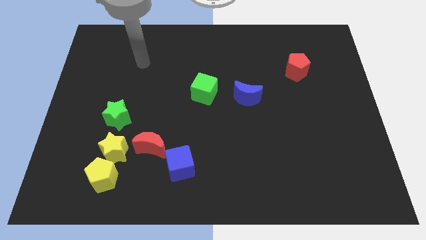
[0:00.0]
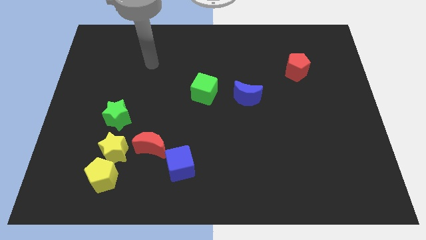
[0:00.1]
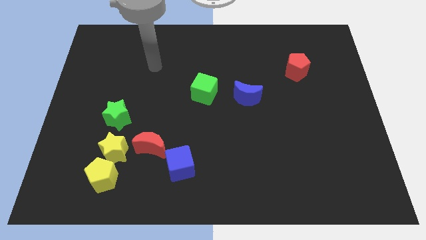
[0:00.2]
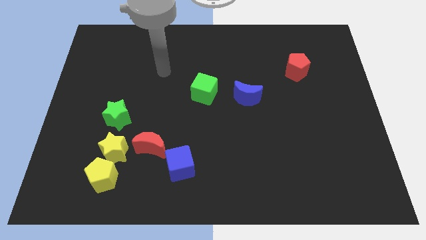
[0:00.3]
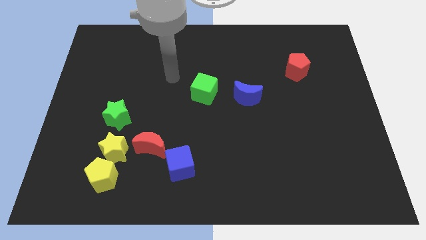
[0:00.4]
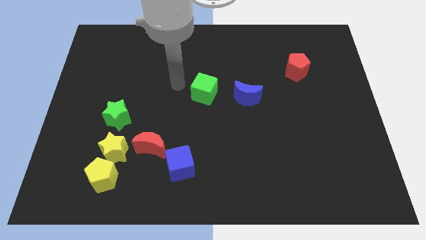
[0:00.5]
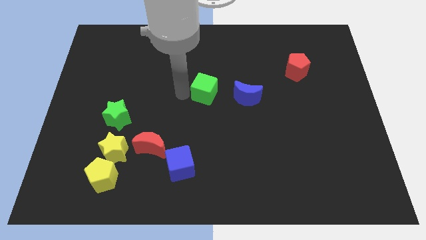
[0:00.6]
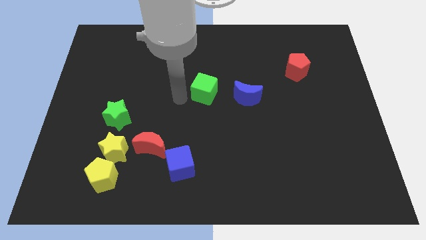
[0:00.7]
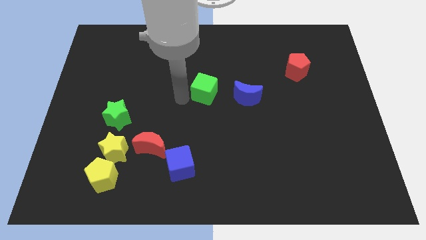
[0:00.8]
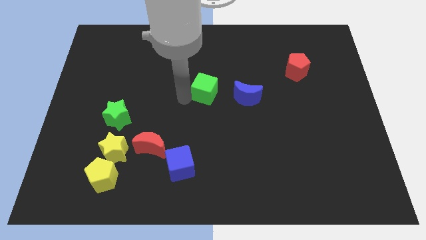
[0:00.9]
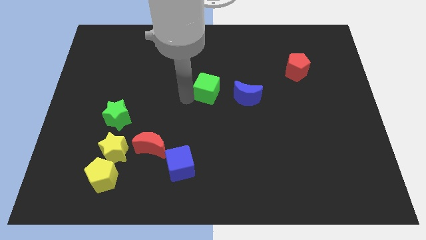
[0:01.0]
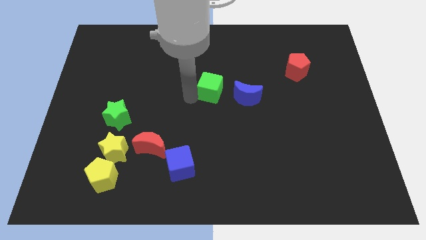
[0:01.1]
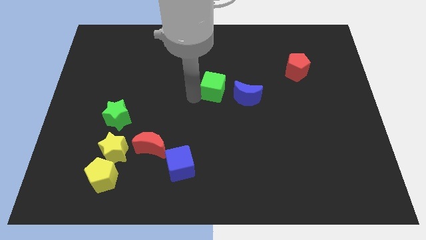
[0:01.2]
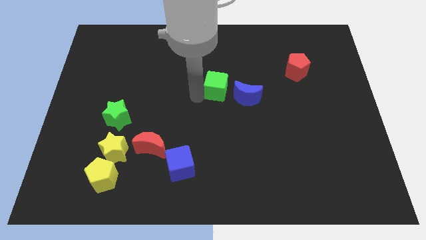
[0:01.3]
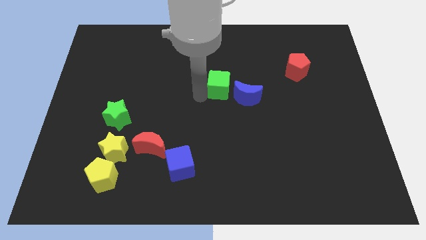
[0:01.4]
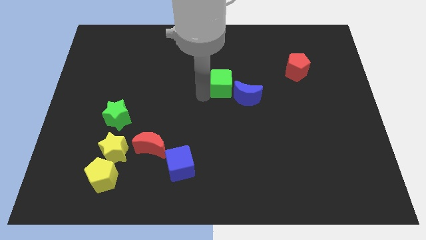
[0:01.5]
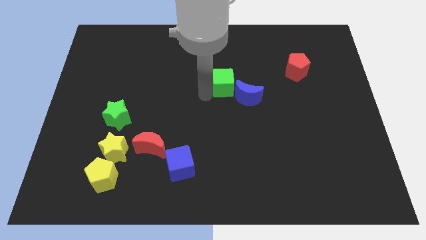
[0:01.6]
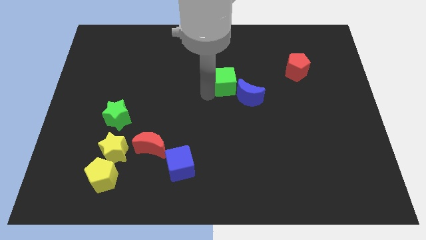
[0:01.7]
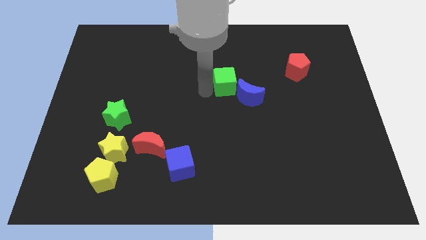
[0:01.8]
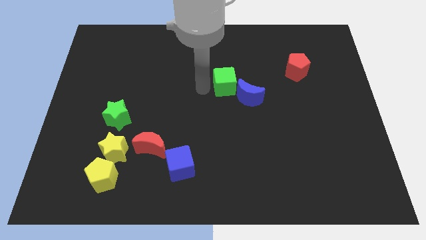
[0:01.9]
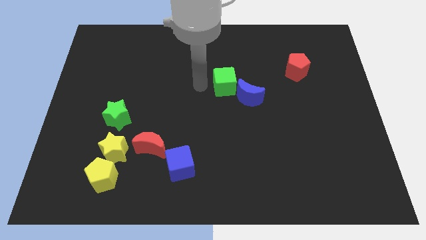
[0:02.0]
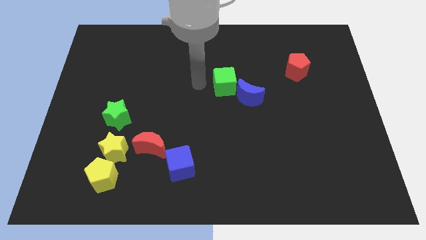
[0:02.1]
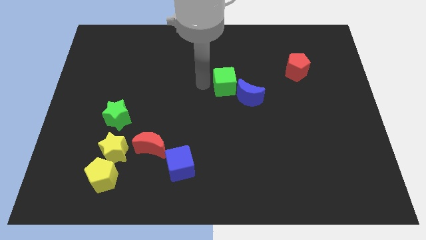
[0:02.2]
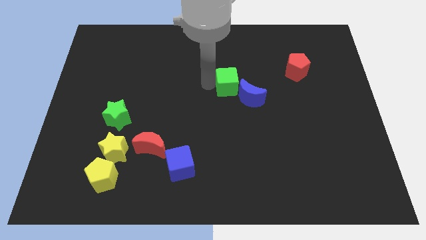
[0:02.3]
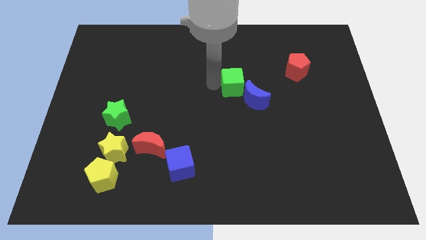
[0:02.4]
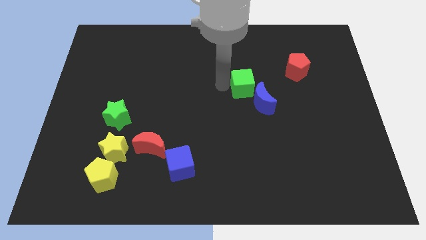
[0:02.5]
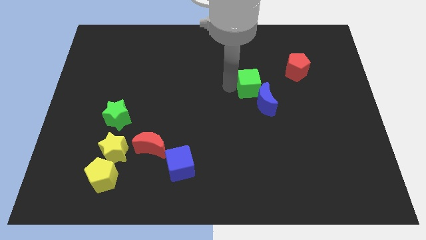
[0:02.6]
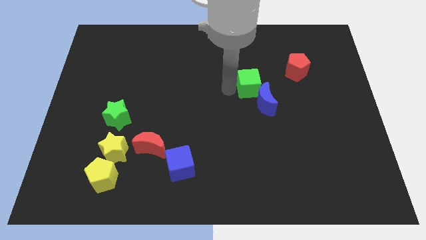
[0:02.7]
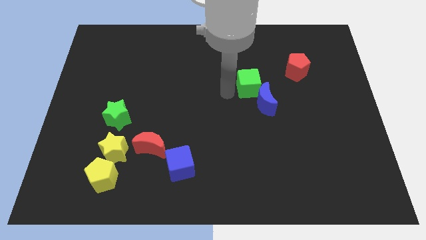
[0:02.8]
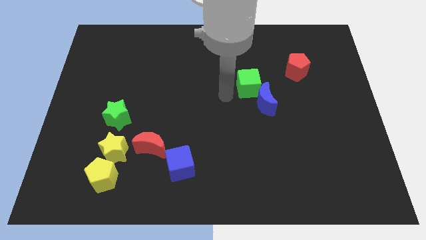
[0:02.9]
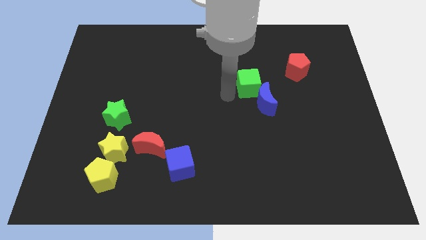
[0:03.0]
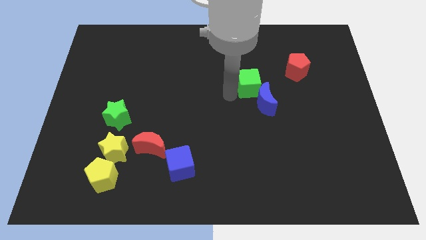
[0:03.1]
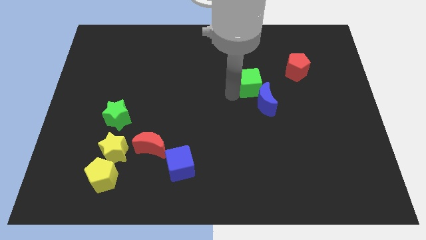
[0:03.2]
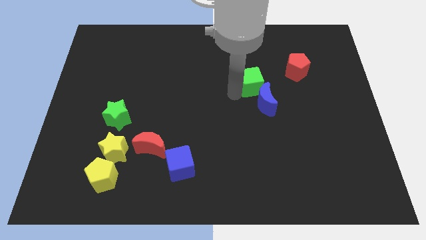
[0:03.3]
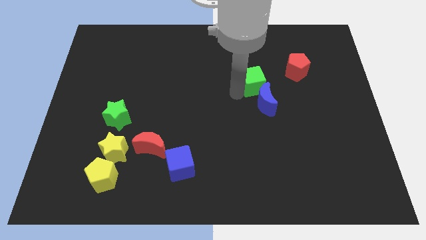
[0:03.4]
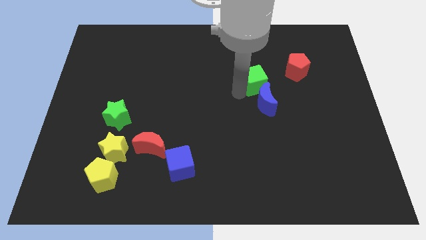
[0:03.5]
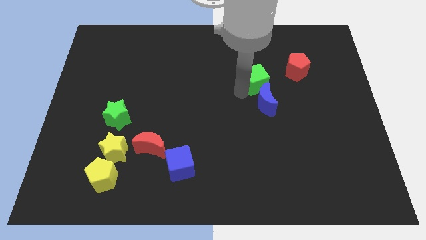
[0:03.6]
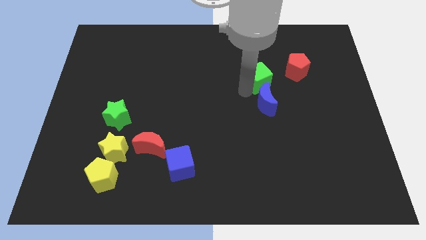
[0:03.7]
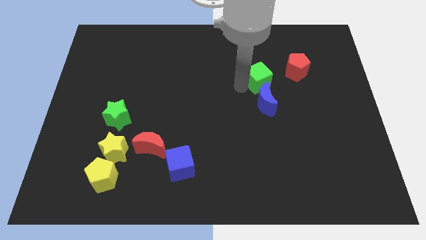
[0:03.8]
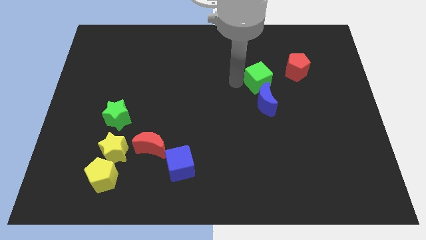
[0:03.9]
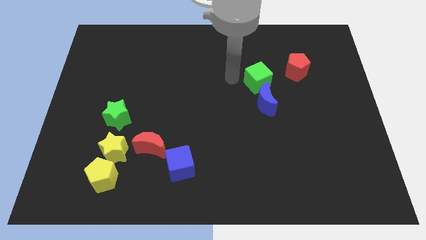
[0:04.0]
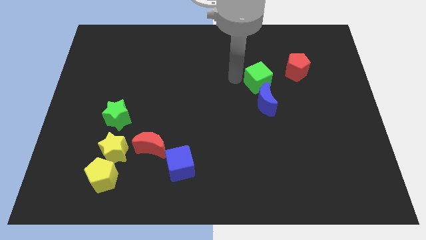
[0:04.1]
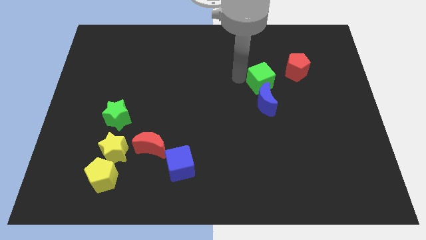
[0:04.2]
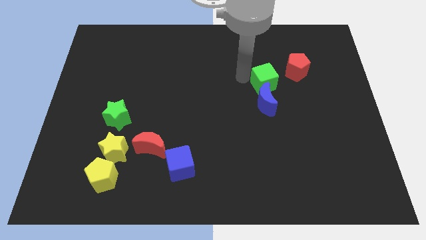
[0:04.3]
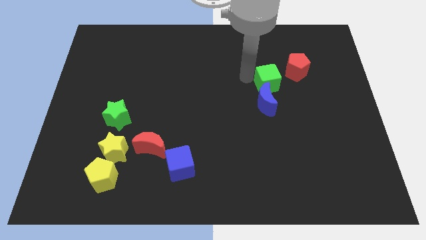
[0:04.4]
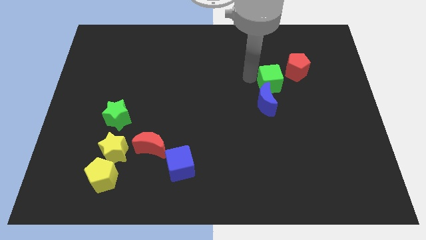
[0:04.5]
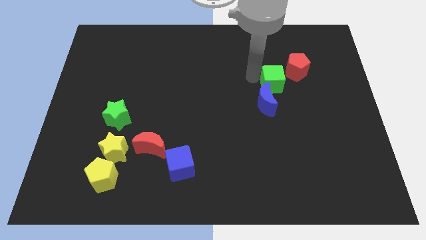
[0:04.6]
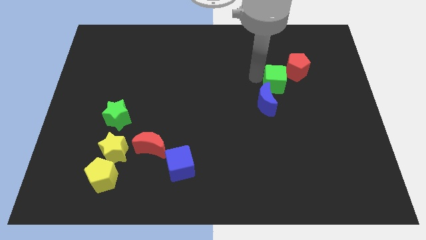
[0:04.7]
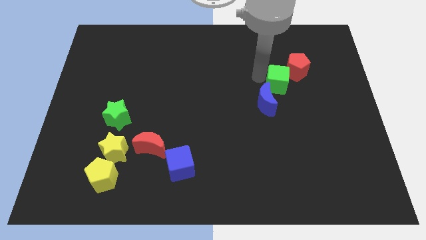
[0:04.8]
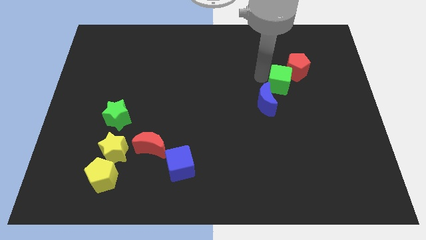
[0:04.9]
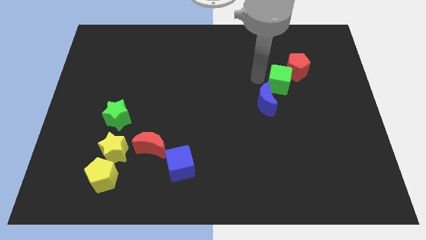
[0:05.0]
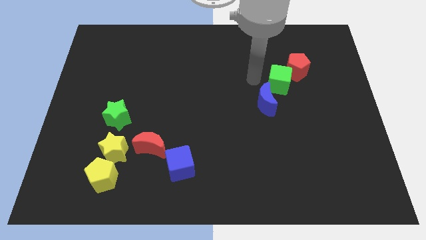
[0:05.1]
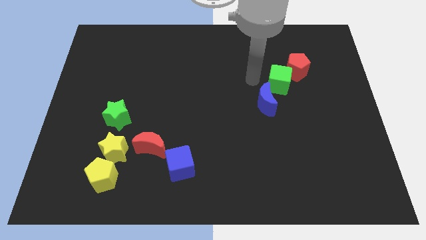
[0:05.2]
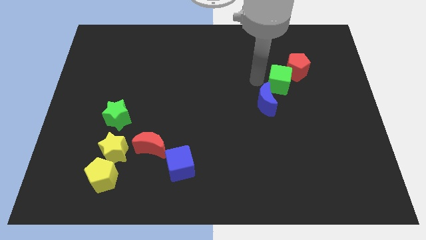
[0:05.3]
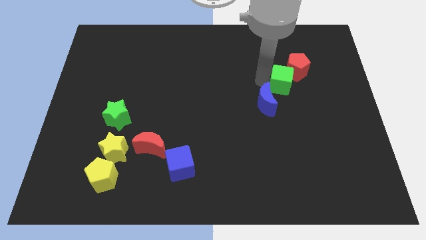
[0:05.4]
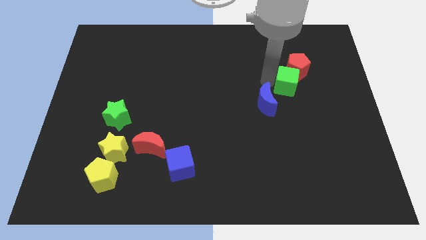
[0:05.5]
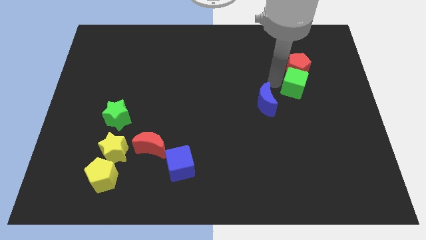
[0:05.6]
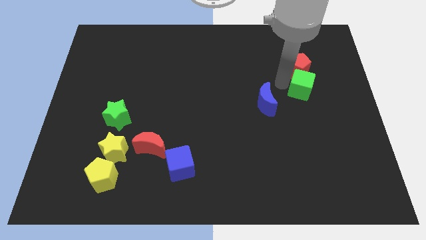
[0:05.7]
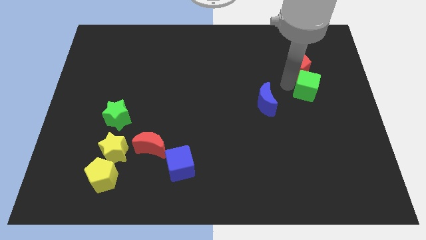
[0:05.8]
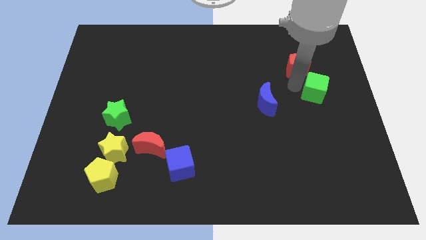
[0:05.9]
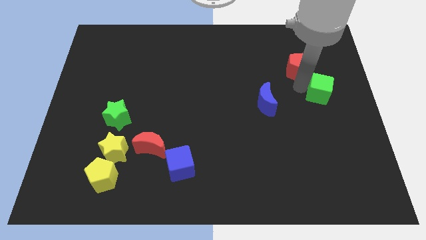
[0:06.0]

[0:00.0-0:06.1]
move the green cube to the right side of the board
